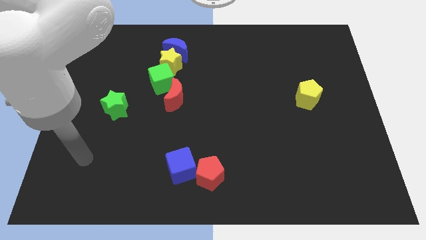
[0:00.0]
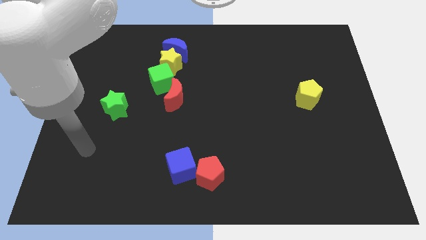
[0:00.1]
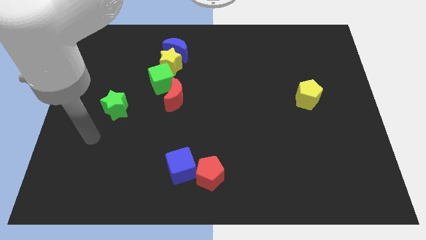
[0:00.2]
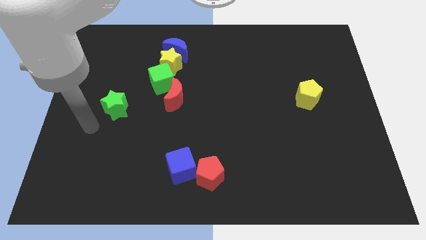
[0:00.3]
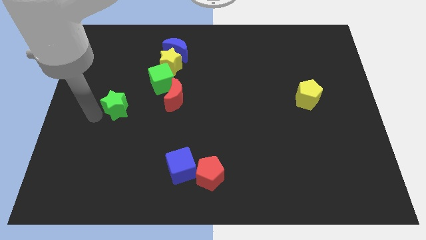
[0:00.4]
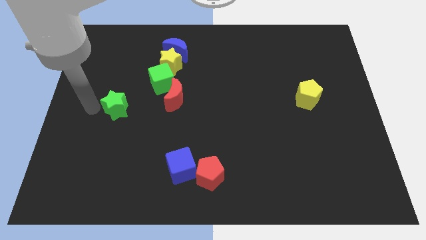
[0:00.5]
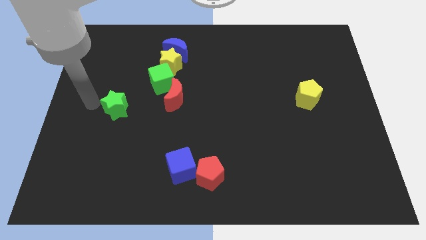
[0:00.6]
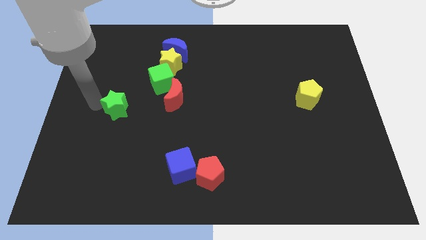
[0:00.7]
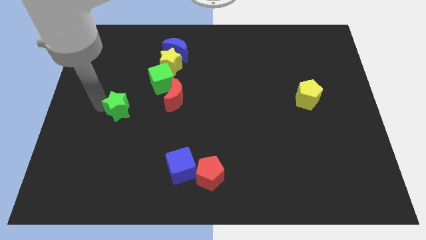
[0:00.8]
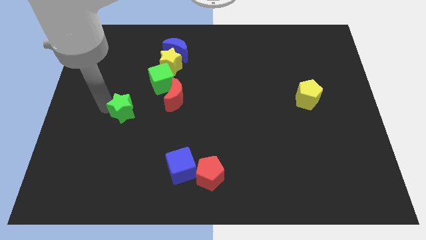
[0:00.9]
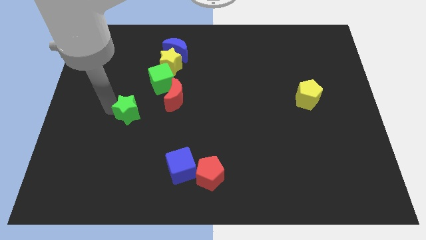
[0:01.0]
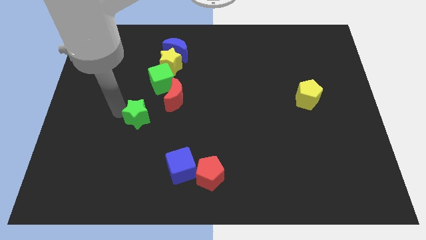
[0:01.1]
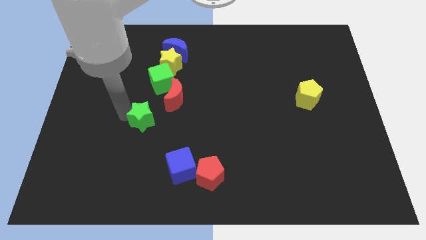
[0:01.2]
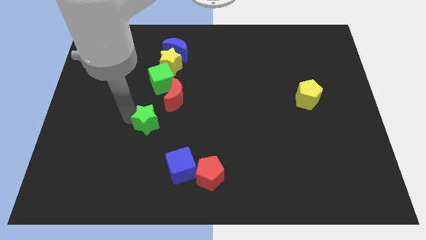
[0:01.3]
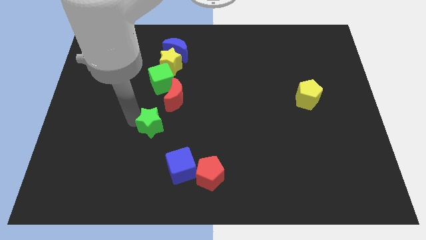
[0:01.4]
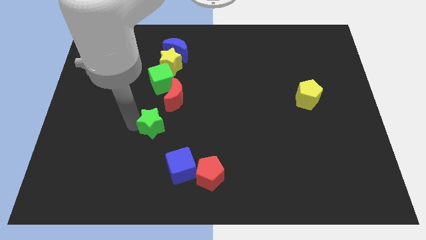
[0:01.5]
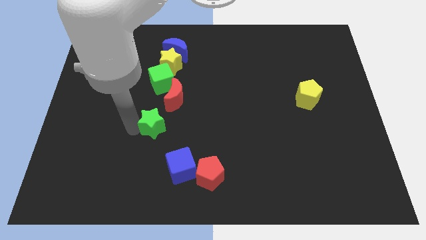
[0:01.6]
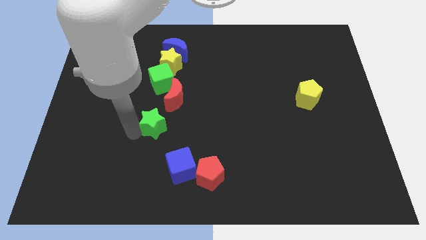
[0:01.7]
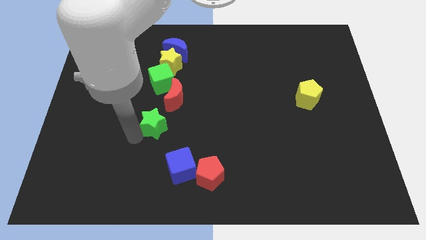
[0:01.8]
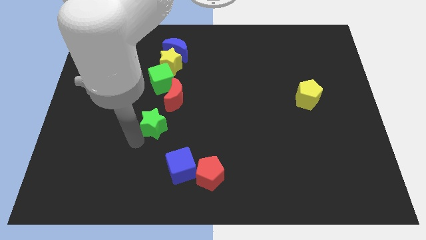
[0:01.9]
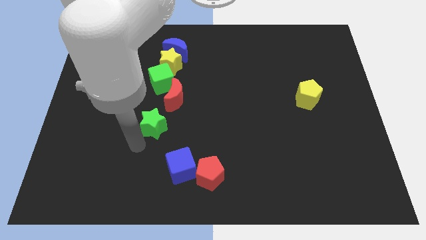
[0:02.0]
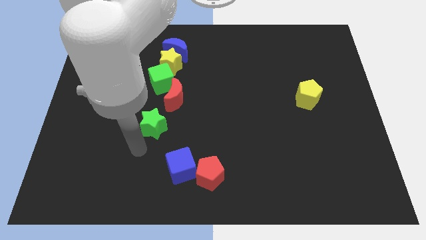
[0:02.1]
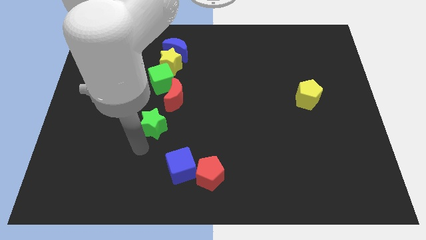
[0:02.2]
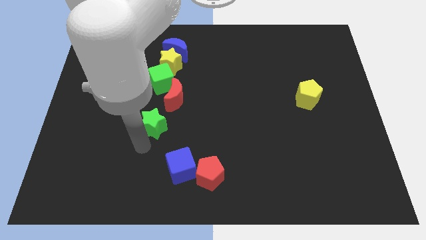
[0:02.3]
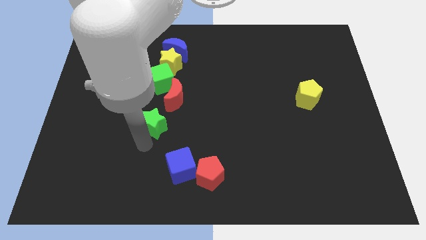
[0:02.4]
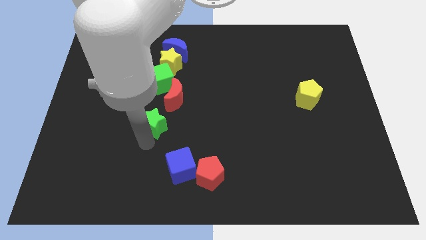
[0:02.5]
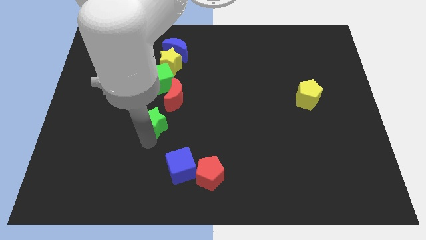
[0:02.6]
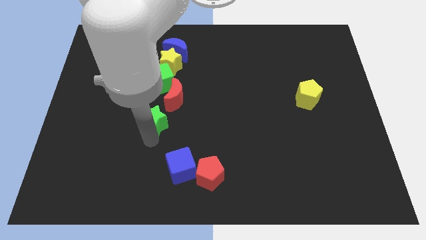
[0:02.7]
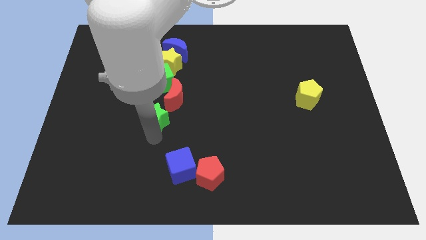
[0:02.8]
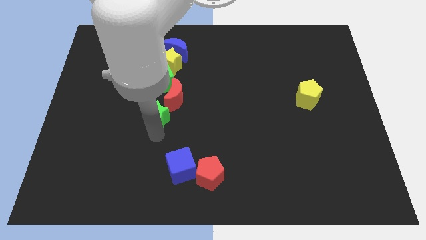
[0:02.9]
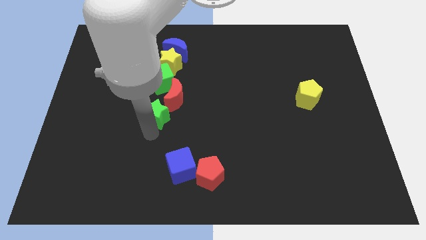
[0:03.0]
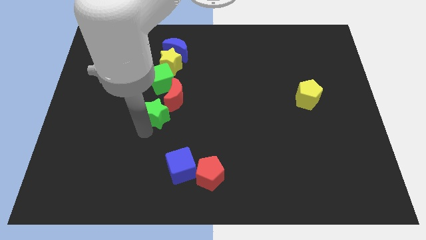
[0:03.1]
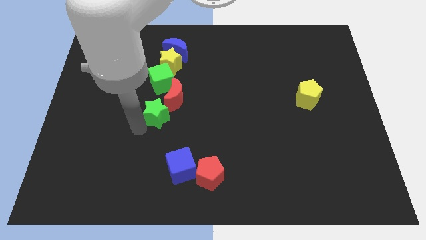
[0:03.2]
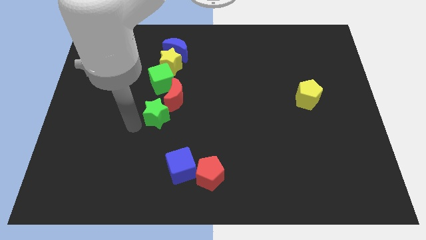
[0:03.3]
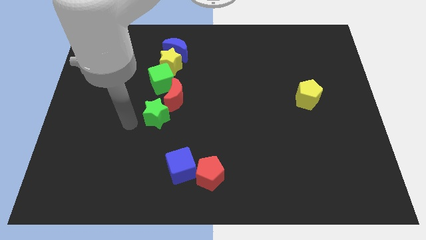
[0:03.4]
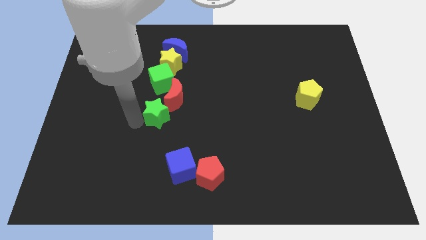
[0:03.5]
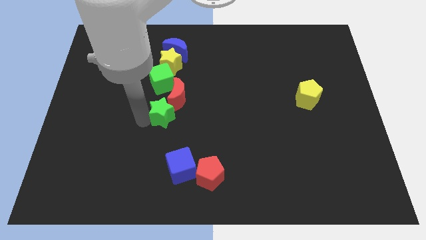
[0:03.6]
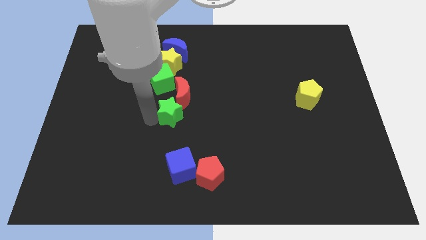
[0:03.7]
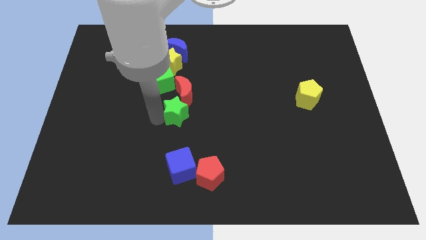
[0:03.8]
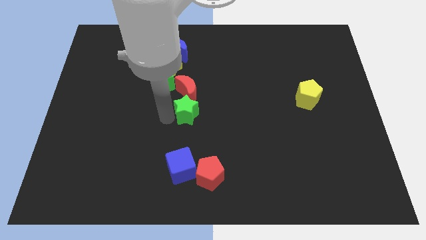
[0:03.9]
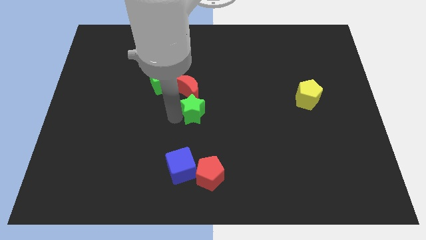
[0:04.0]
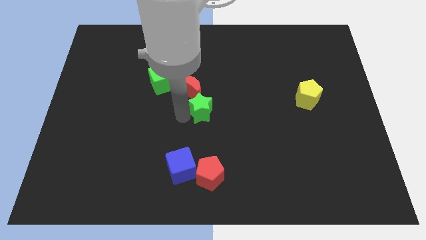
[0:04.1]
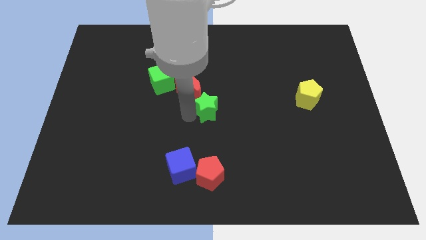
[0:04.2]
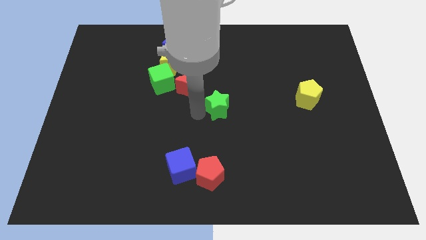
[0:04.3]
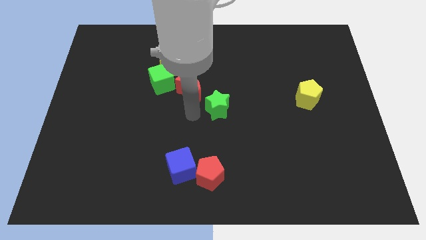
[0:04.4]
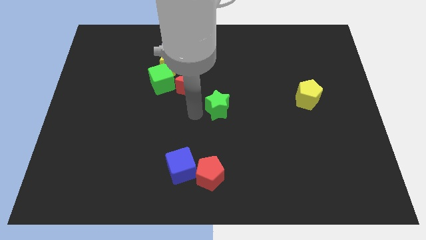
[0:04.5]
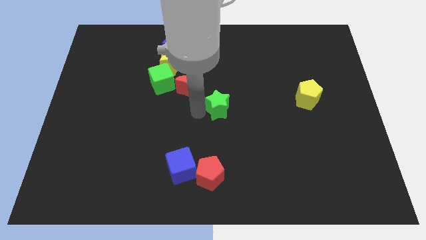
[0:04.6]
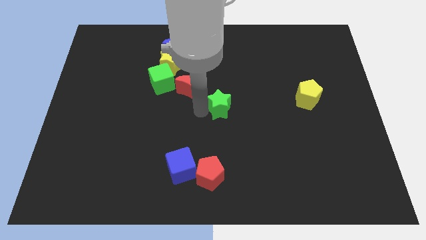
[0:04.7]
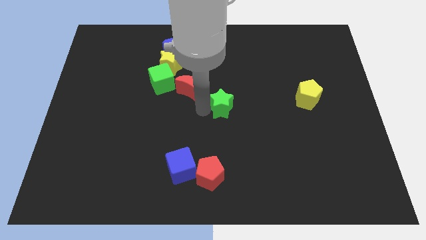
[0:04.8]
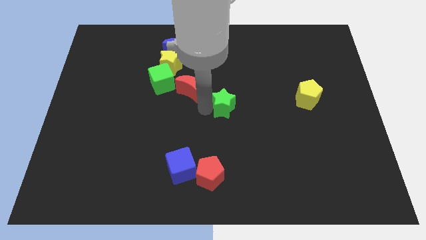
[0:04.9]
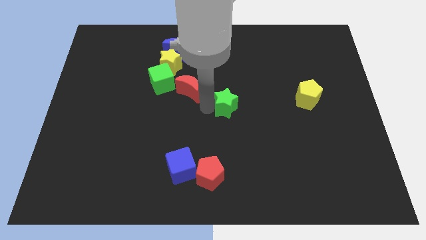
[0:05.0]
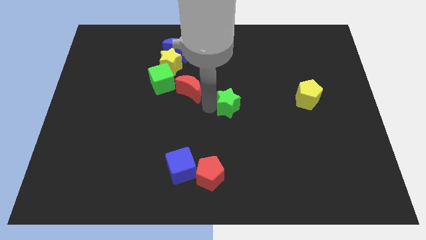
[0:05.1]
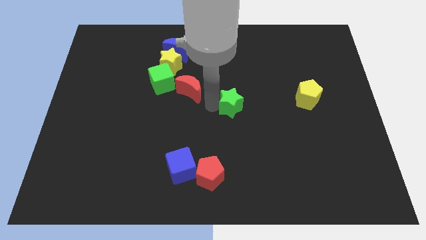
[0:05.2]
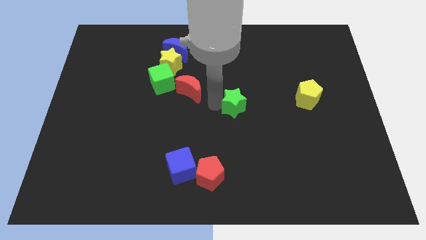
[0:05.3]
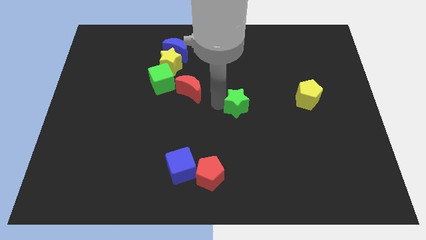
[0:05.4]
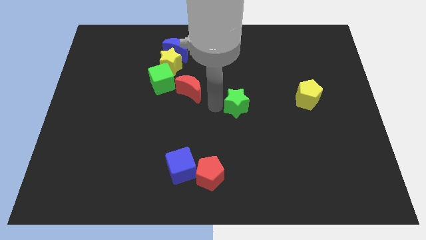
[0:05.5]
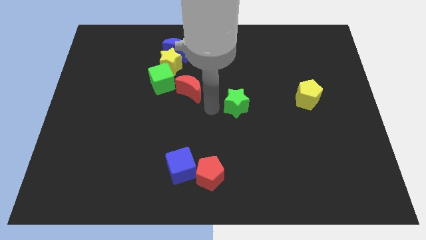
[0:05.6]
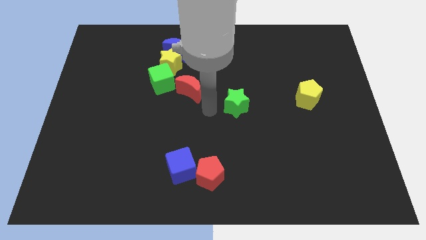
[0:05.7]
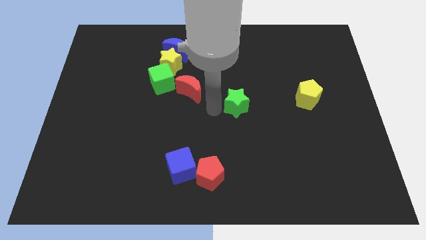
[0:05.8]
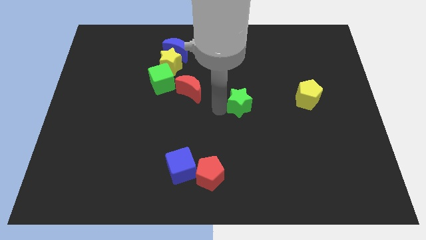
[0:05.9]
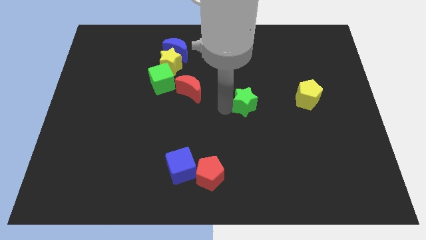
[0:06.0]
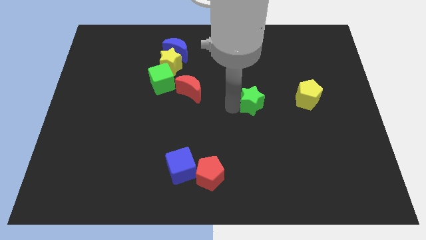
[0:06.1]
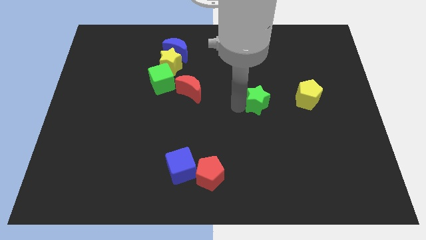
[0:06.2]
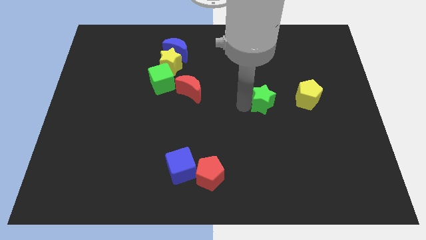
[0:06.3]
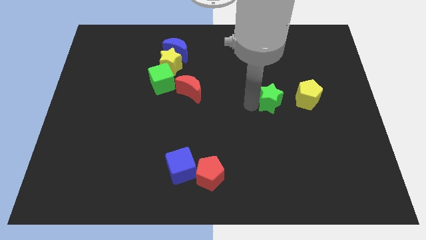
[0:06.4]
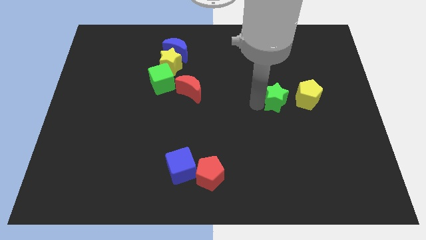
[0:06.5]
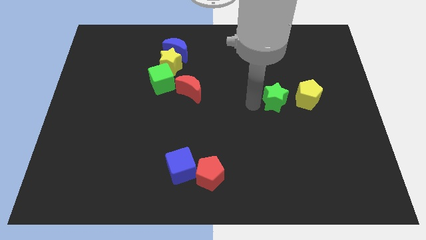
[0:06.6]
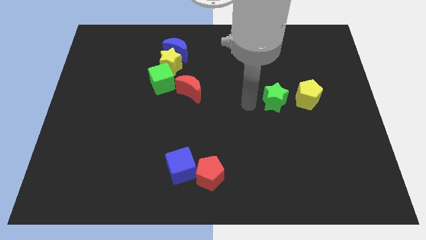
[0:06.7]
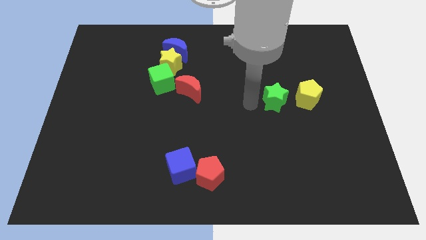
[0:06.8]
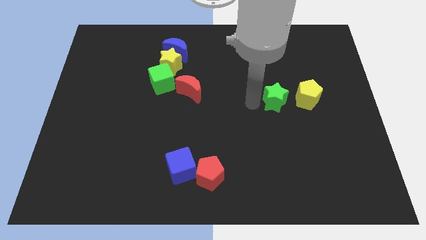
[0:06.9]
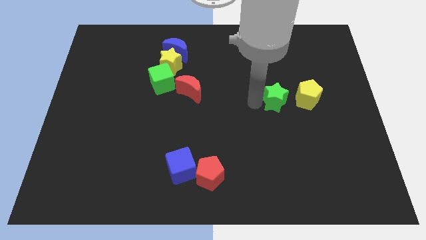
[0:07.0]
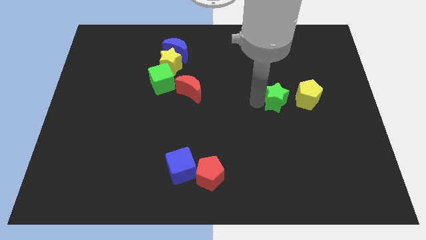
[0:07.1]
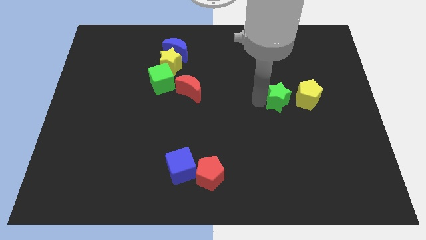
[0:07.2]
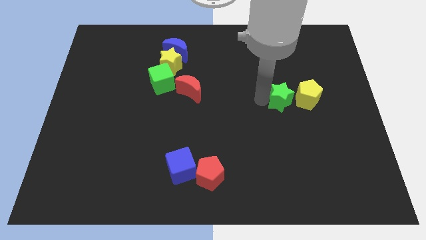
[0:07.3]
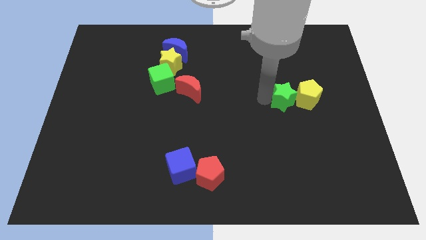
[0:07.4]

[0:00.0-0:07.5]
slide the green star towards the yellow pentagon
